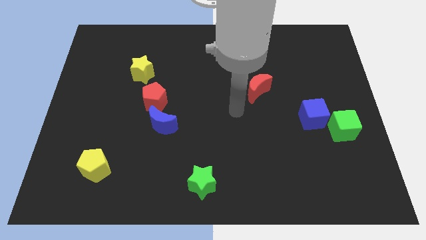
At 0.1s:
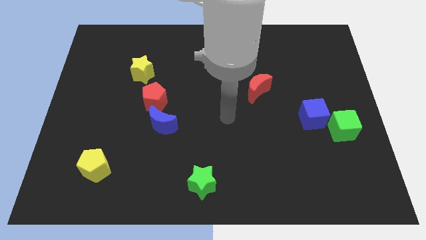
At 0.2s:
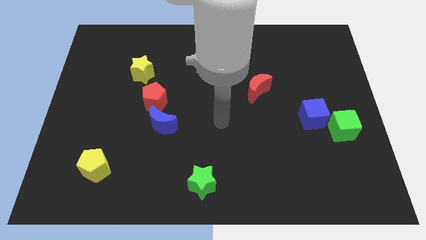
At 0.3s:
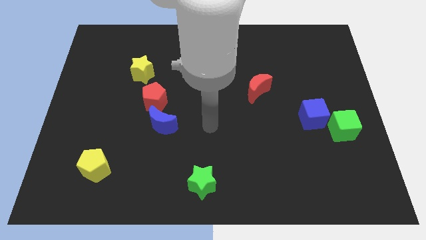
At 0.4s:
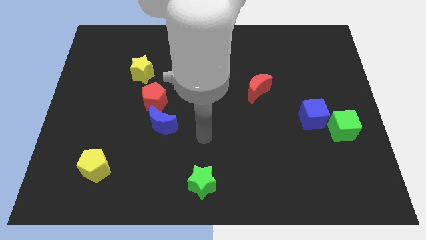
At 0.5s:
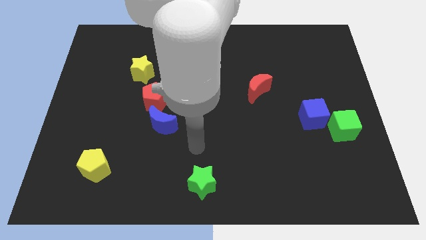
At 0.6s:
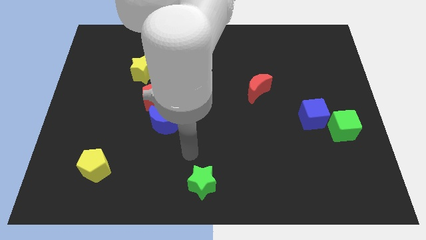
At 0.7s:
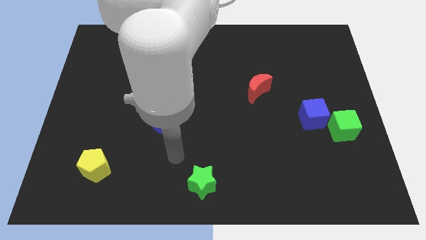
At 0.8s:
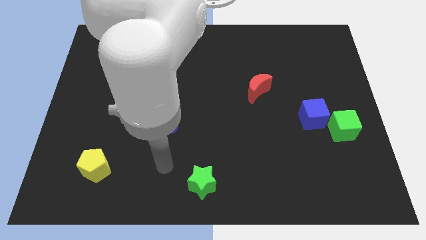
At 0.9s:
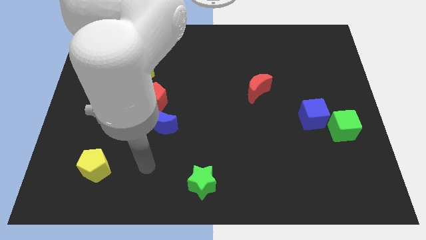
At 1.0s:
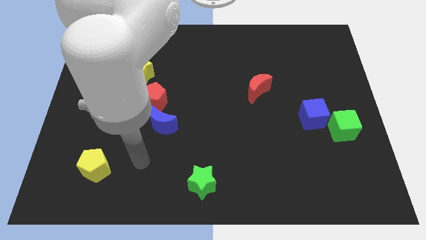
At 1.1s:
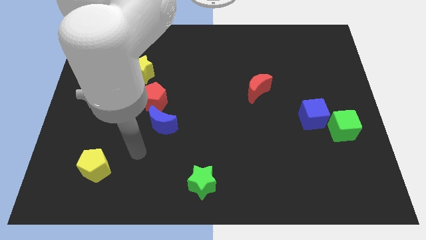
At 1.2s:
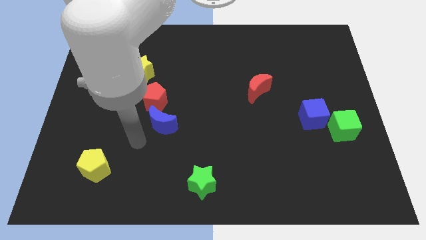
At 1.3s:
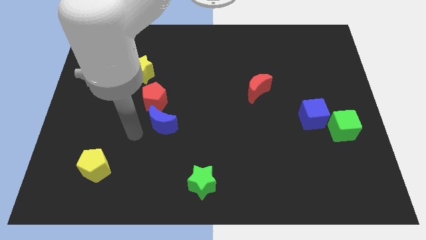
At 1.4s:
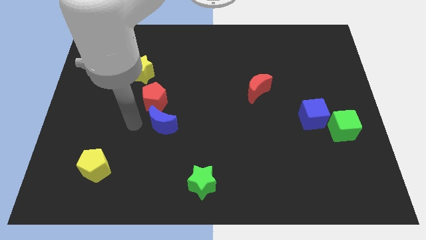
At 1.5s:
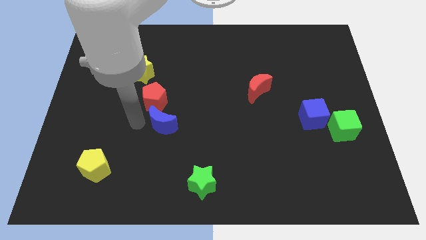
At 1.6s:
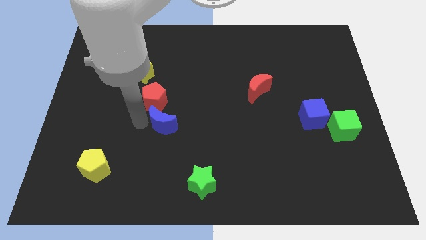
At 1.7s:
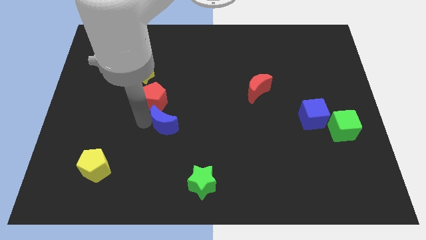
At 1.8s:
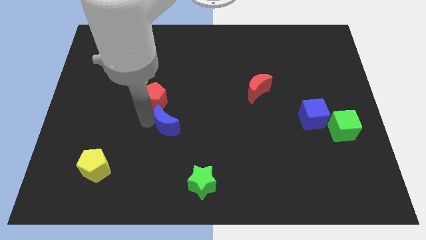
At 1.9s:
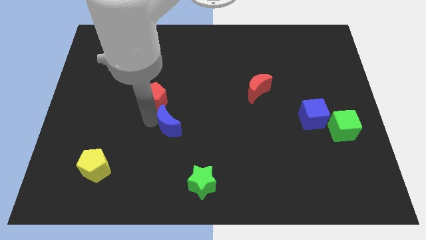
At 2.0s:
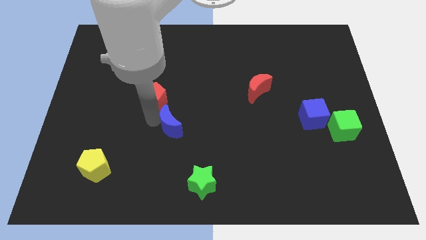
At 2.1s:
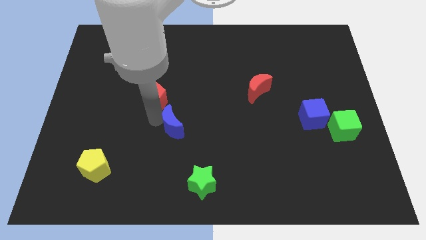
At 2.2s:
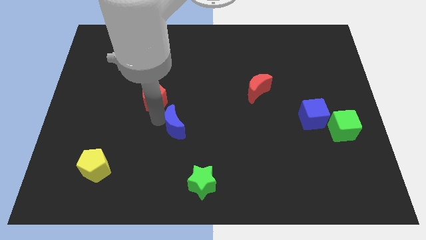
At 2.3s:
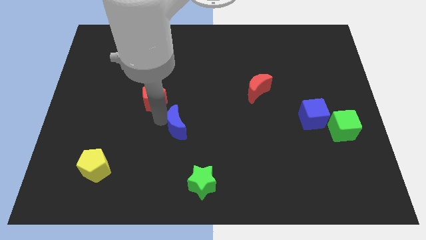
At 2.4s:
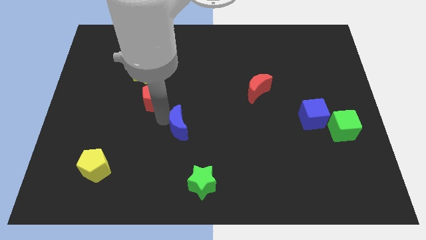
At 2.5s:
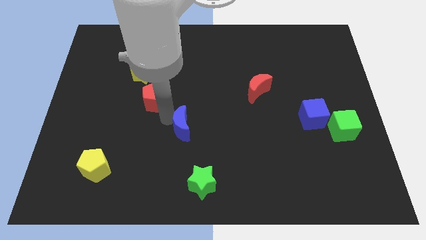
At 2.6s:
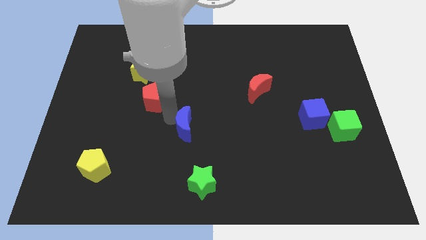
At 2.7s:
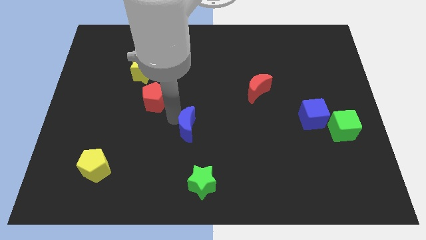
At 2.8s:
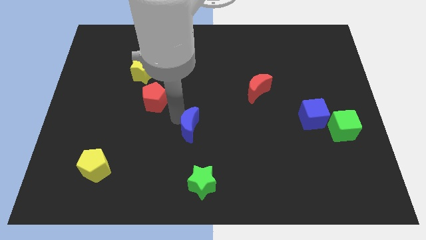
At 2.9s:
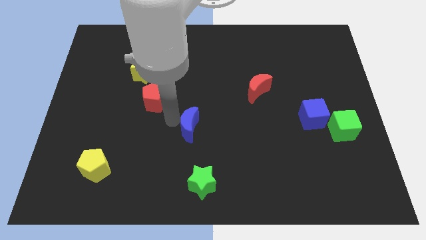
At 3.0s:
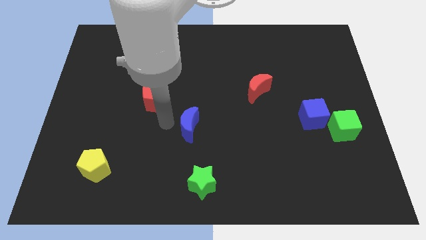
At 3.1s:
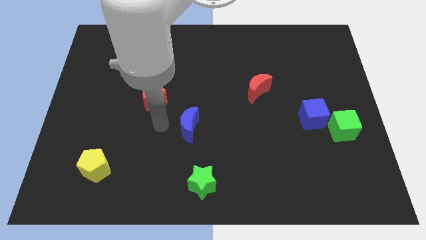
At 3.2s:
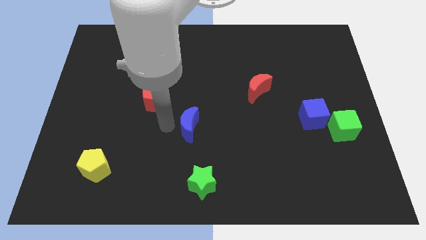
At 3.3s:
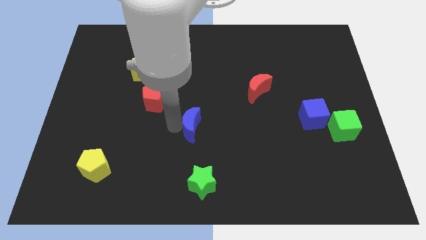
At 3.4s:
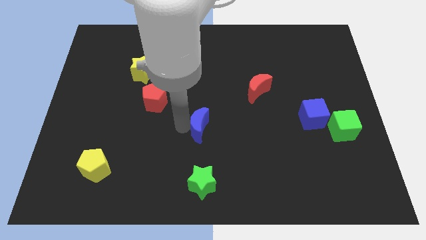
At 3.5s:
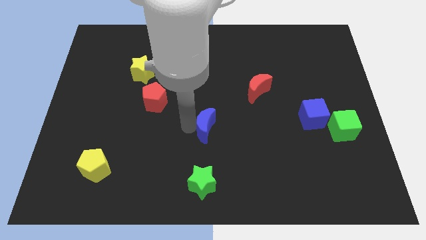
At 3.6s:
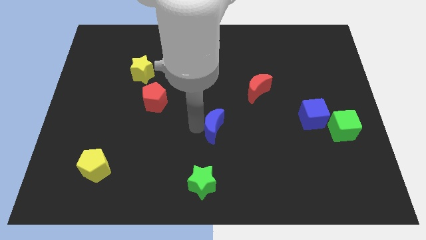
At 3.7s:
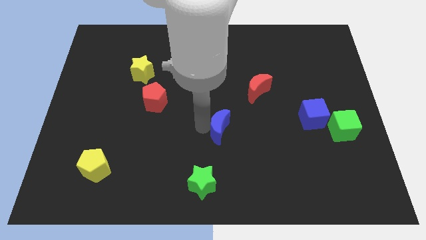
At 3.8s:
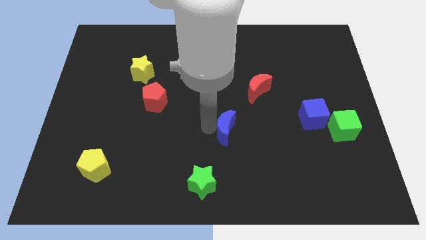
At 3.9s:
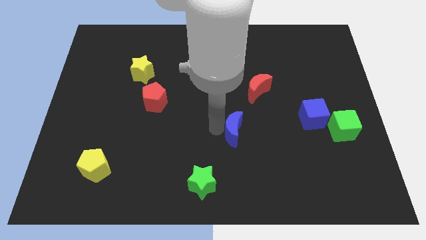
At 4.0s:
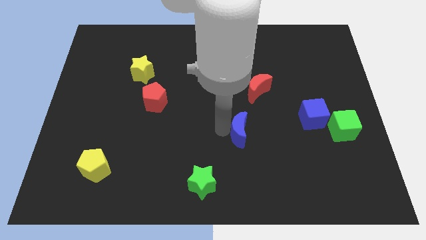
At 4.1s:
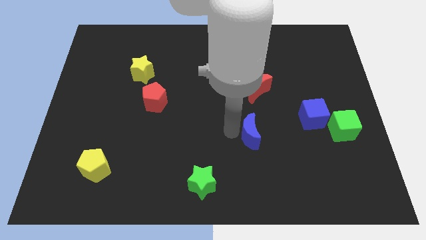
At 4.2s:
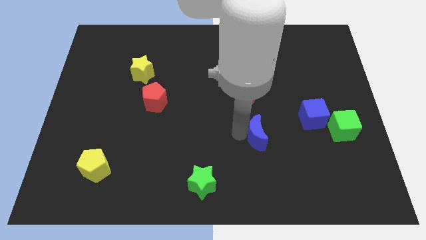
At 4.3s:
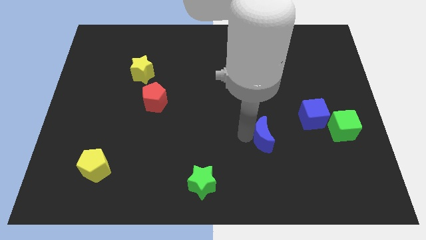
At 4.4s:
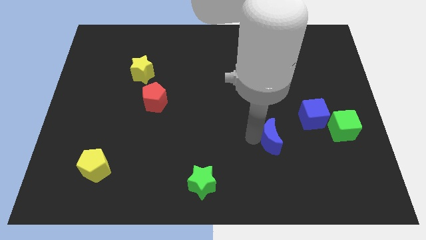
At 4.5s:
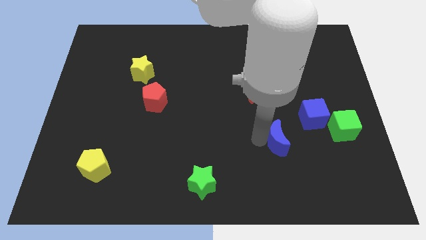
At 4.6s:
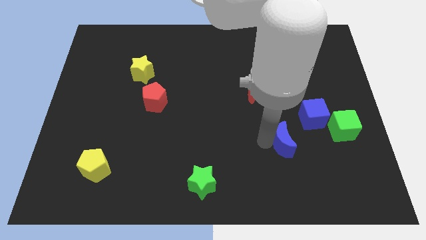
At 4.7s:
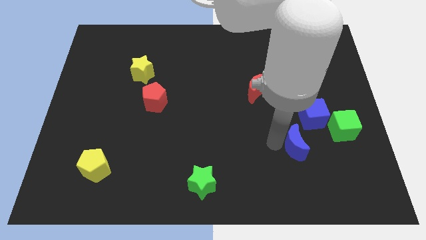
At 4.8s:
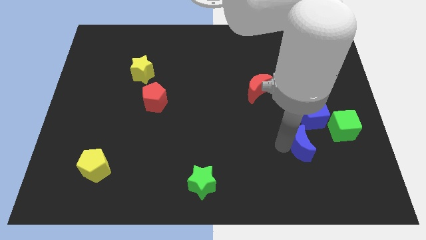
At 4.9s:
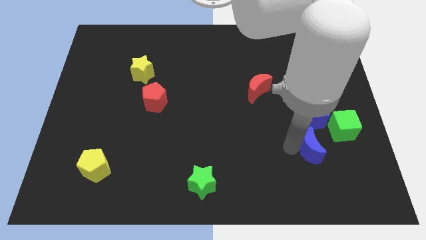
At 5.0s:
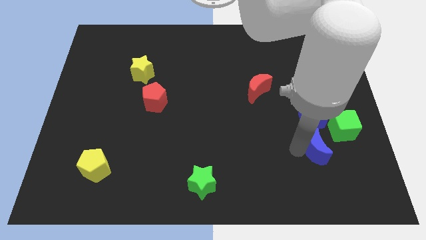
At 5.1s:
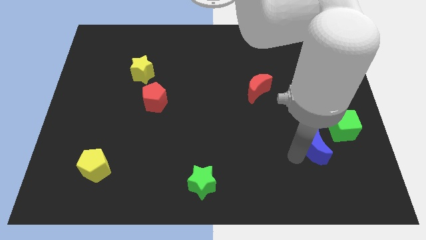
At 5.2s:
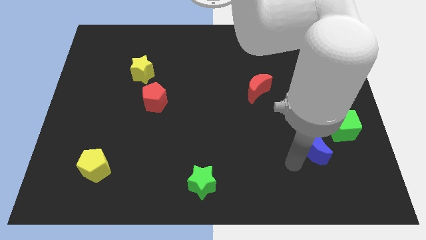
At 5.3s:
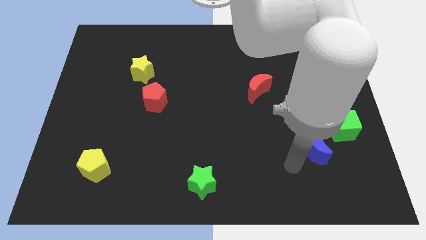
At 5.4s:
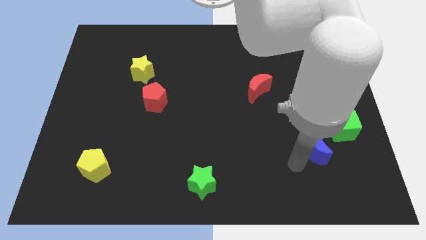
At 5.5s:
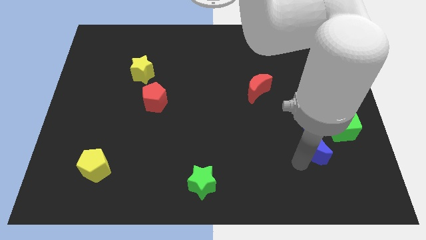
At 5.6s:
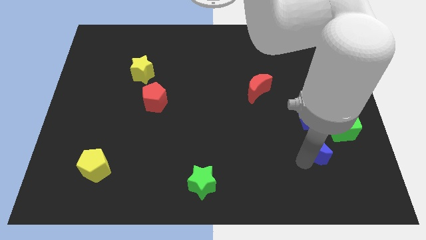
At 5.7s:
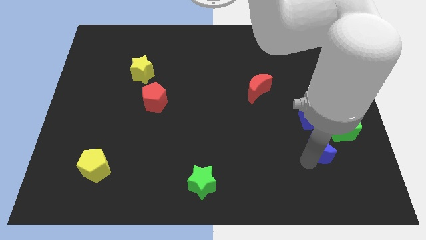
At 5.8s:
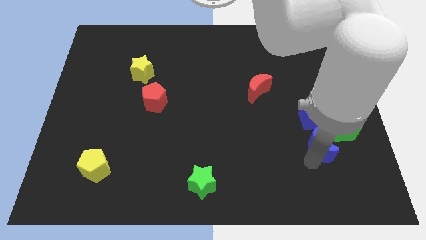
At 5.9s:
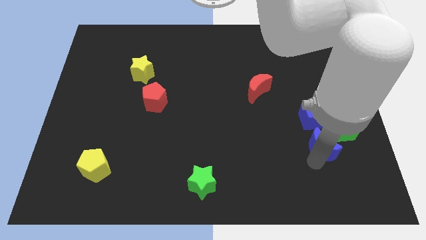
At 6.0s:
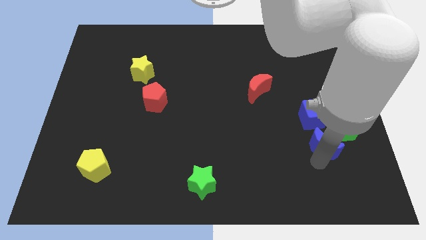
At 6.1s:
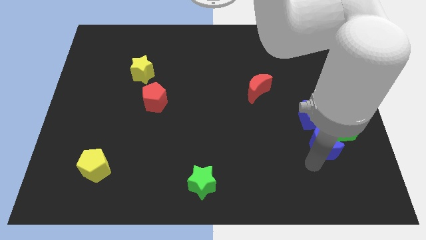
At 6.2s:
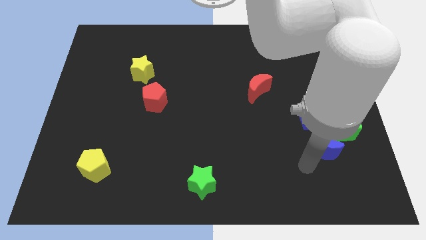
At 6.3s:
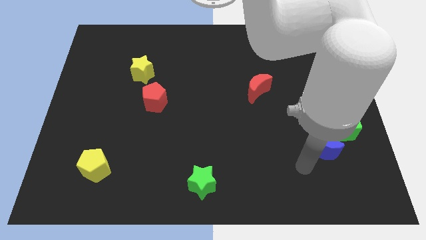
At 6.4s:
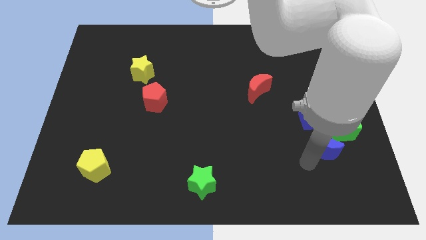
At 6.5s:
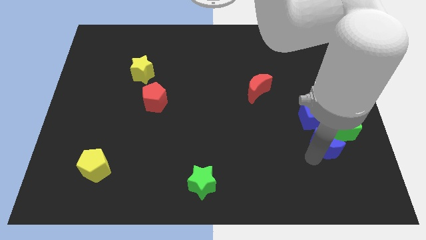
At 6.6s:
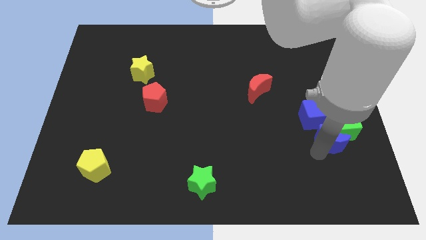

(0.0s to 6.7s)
slide the blue moon next to the green cube

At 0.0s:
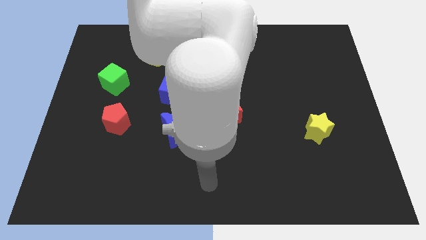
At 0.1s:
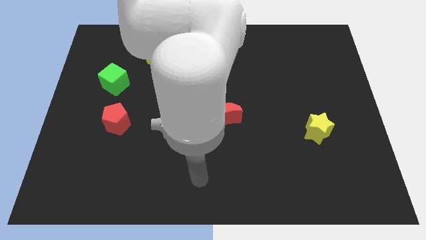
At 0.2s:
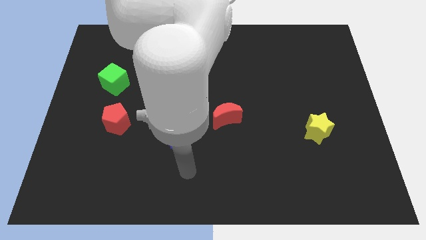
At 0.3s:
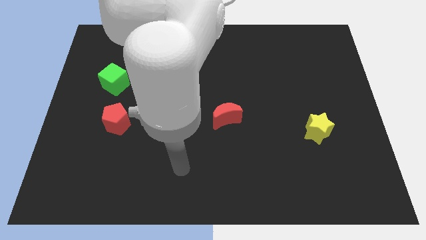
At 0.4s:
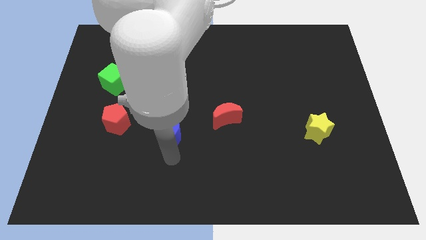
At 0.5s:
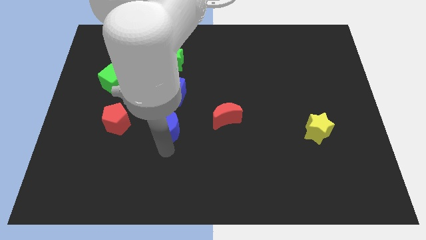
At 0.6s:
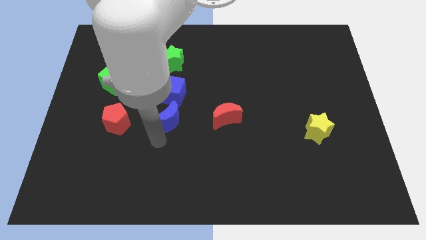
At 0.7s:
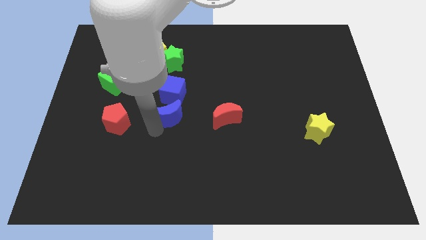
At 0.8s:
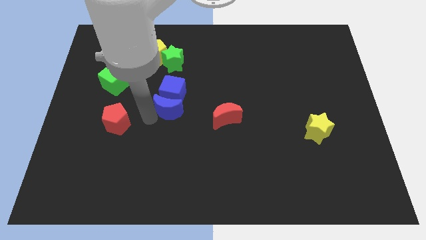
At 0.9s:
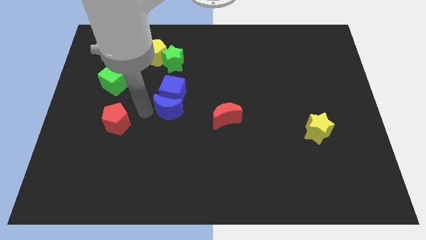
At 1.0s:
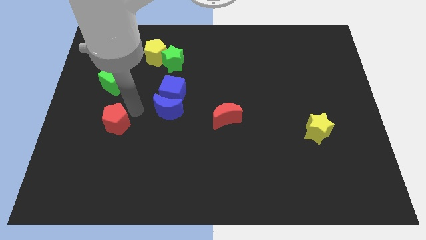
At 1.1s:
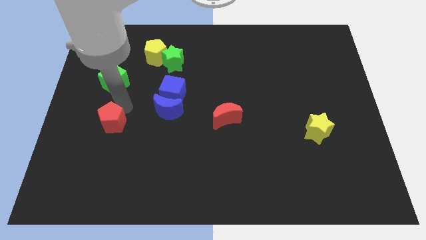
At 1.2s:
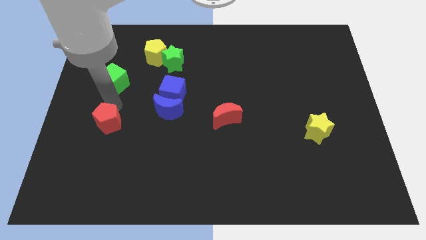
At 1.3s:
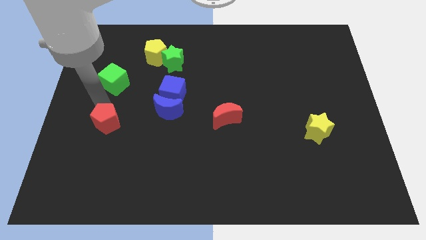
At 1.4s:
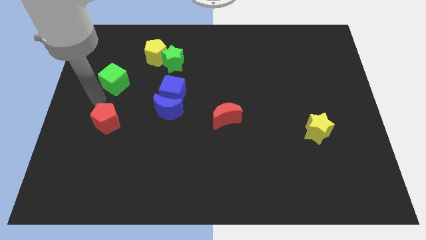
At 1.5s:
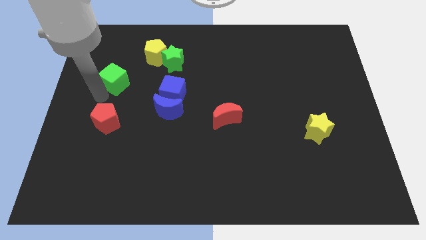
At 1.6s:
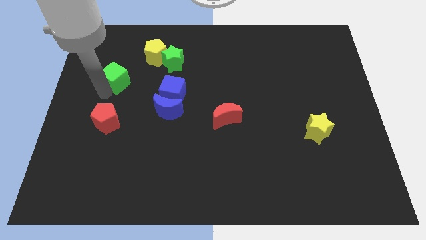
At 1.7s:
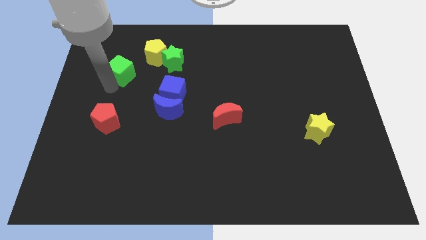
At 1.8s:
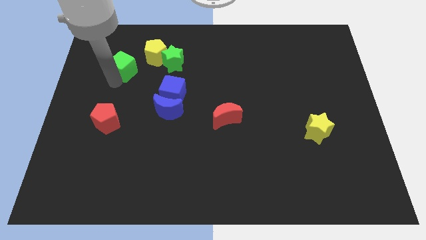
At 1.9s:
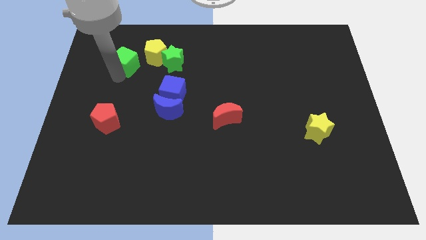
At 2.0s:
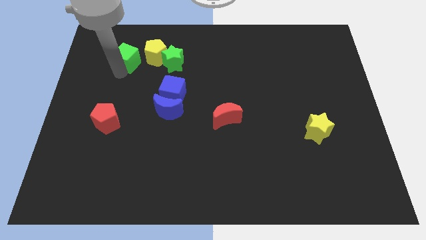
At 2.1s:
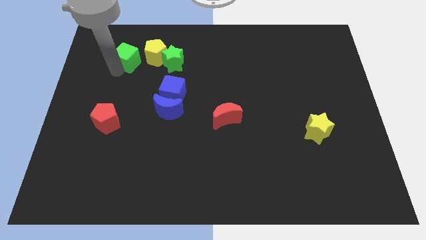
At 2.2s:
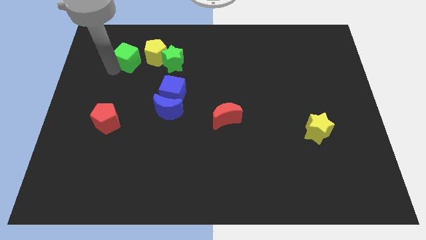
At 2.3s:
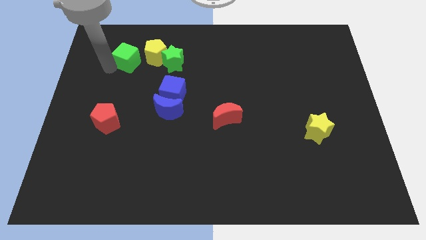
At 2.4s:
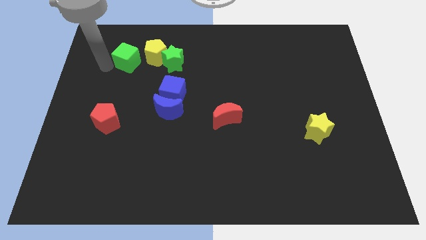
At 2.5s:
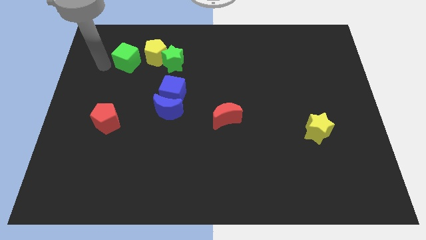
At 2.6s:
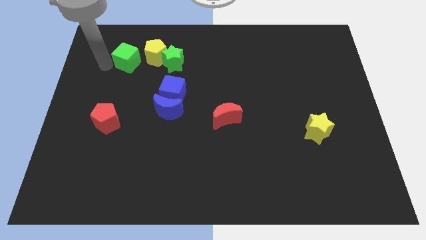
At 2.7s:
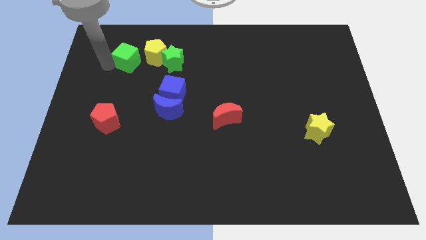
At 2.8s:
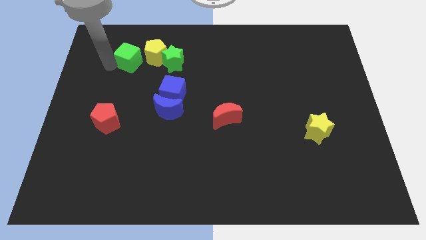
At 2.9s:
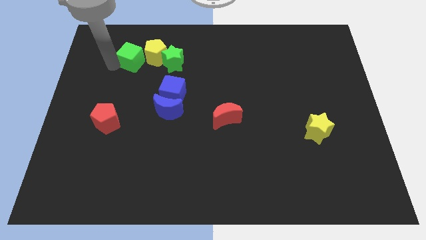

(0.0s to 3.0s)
move the green cube to the yellow pentagon
